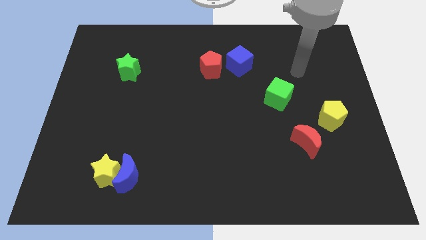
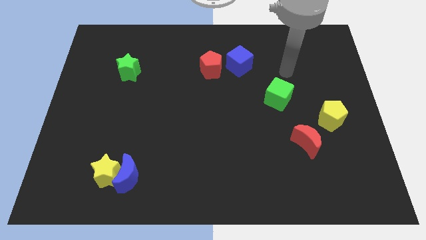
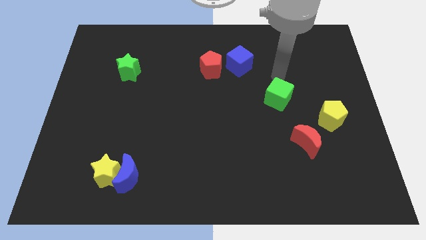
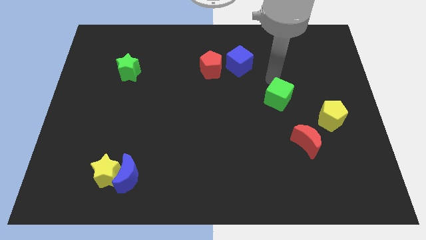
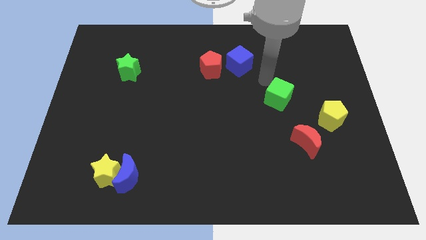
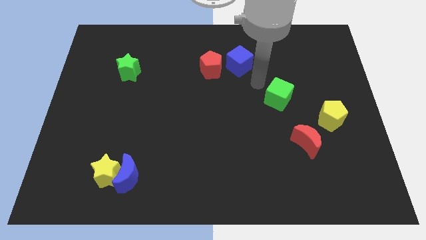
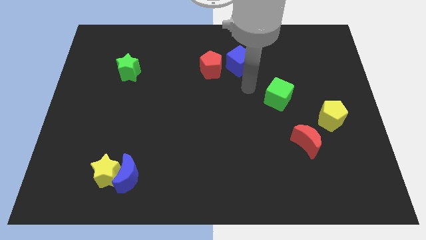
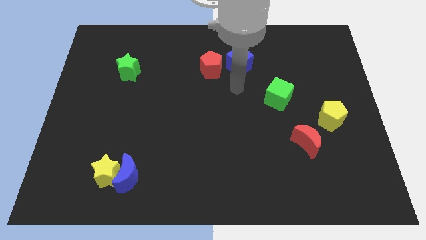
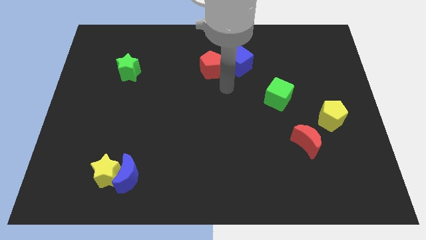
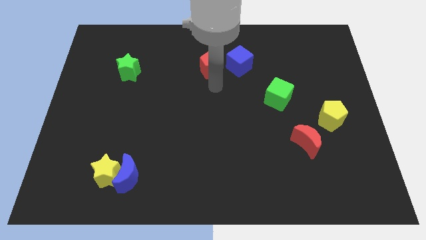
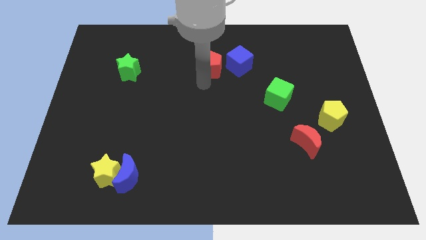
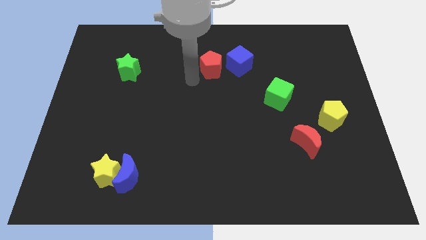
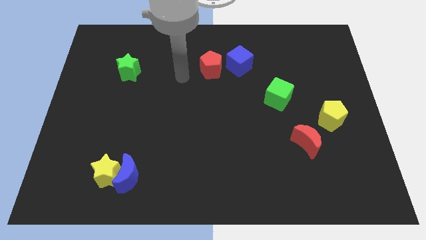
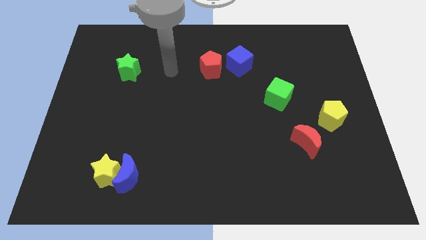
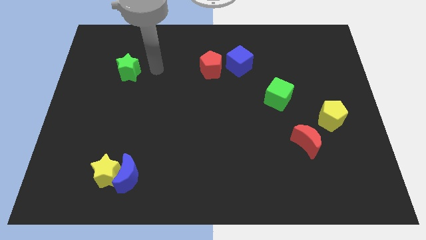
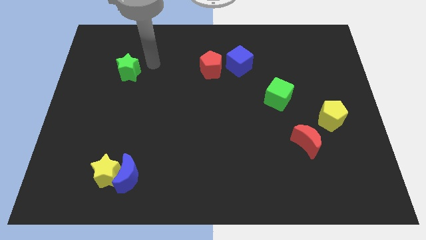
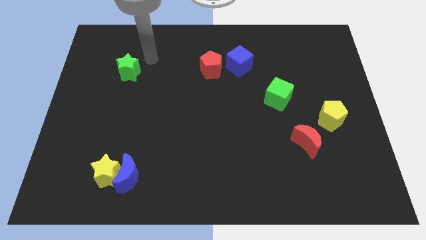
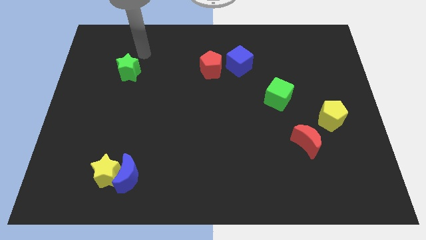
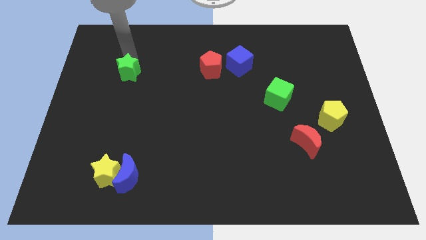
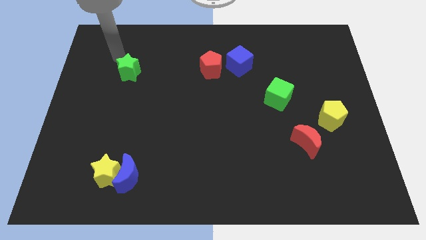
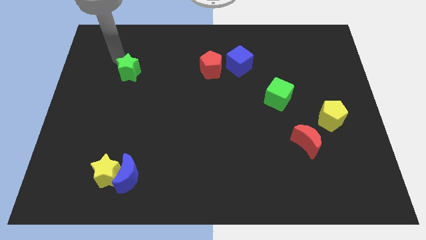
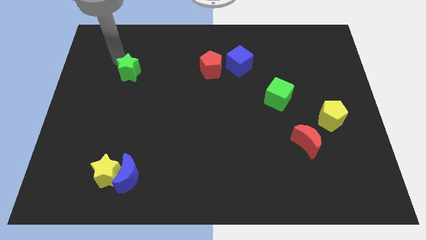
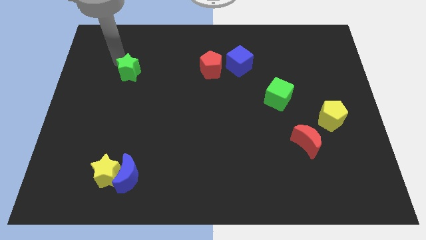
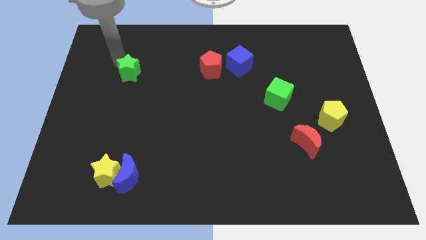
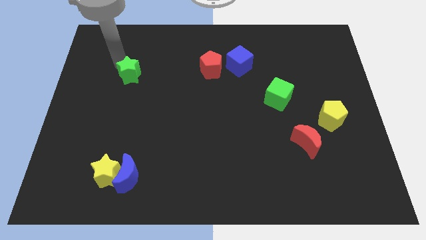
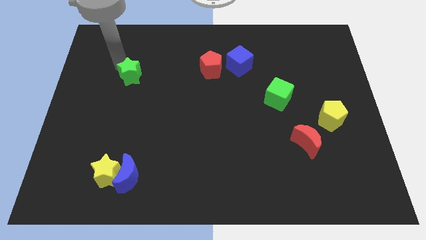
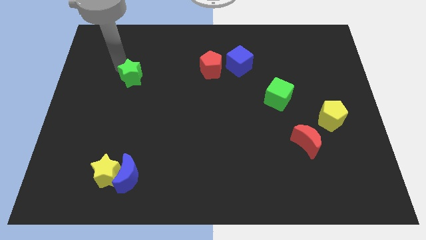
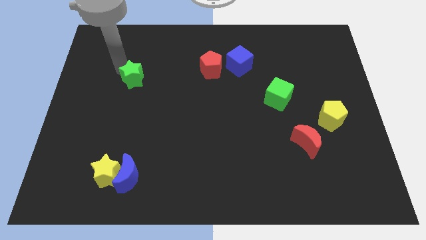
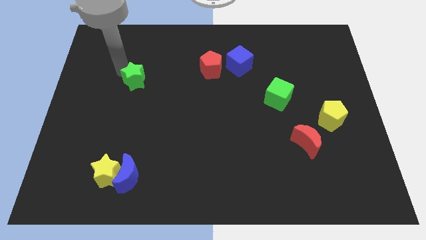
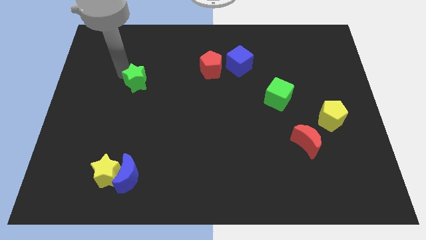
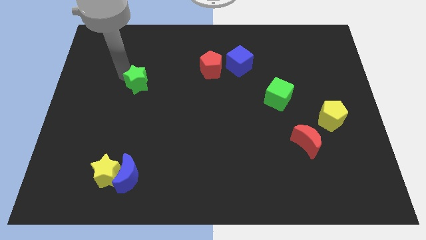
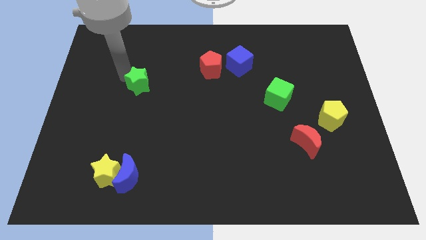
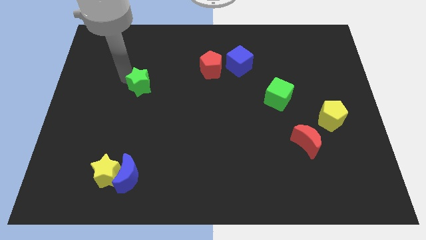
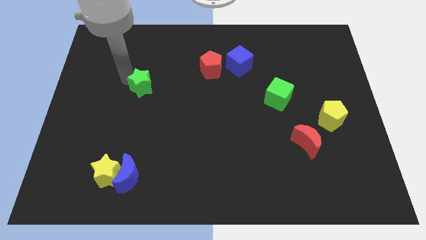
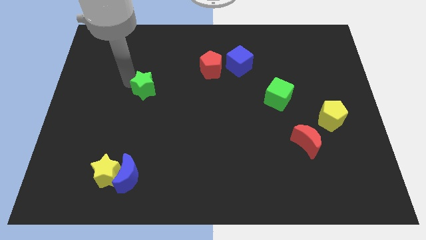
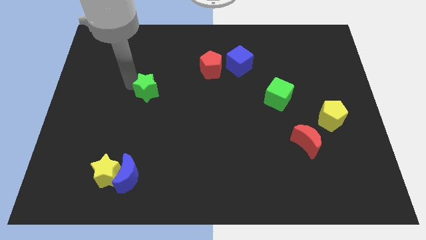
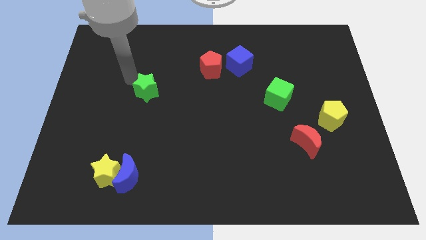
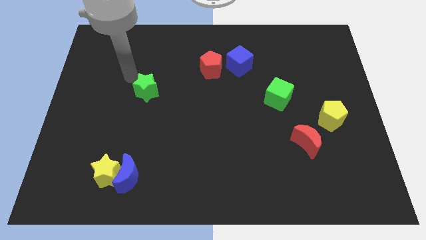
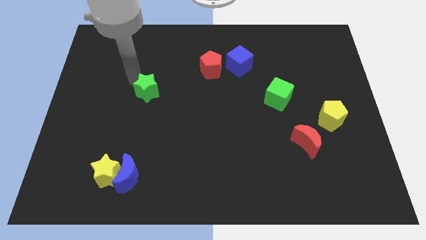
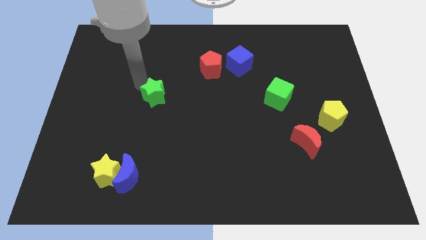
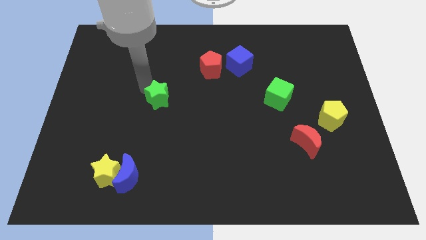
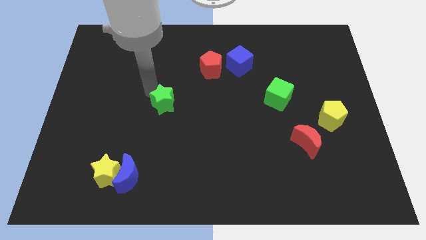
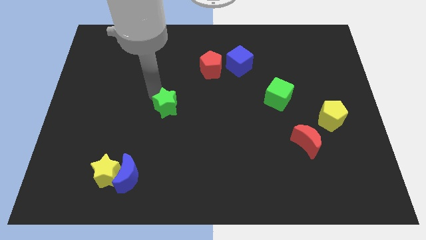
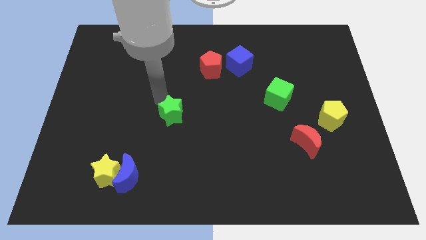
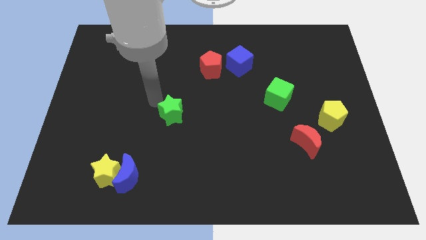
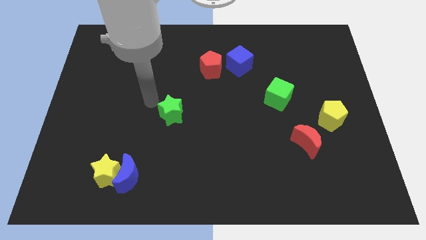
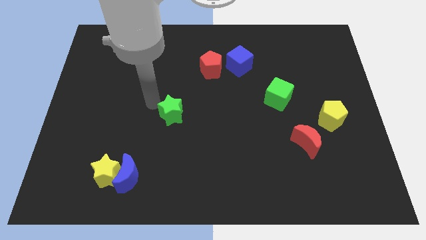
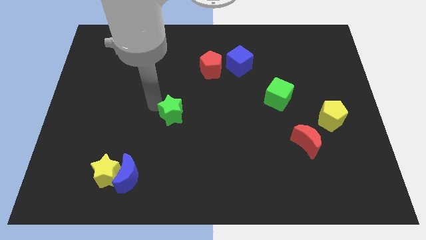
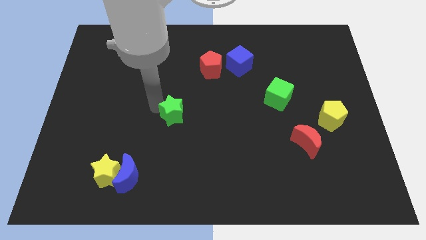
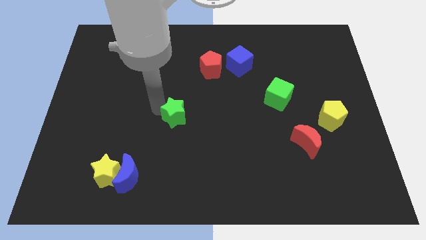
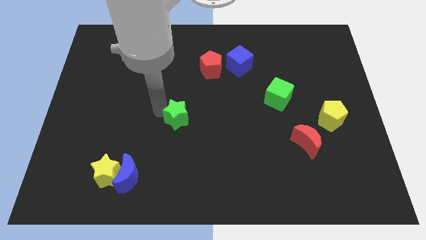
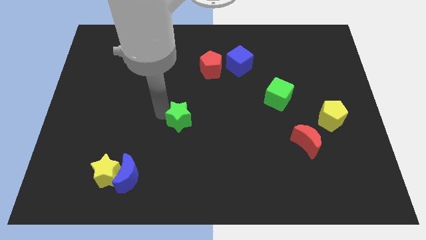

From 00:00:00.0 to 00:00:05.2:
push the green star down and to the right diagonally

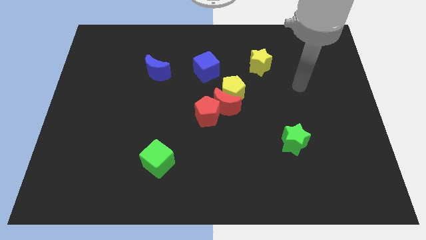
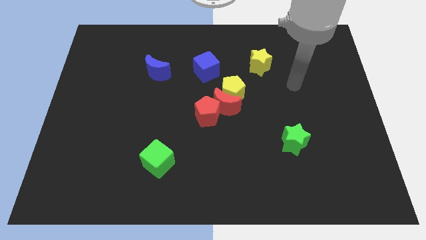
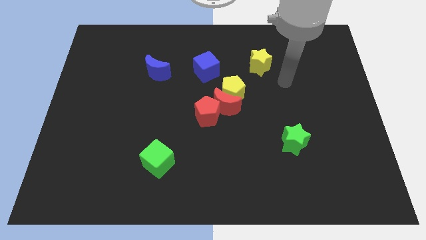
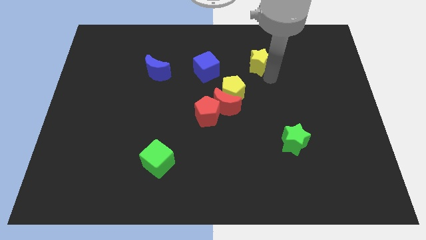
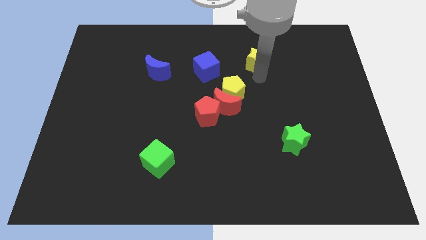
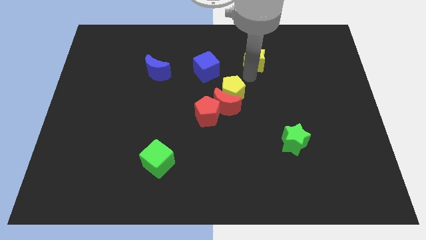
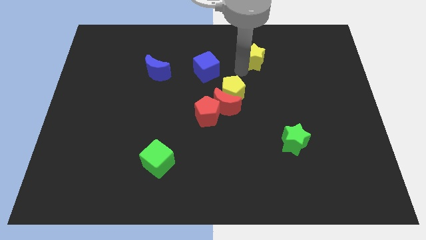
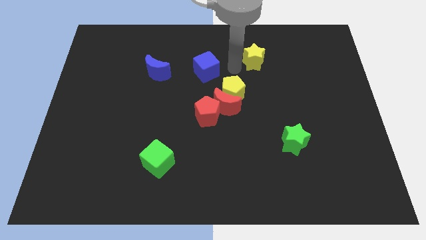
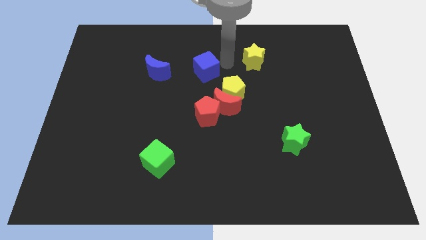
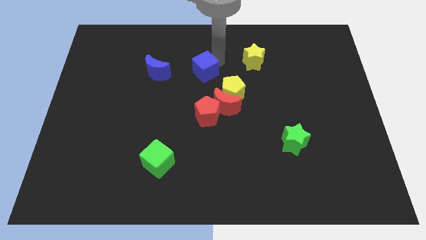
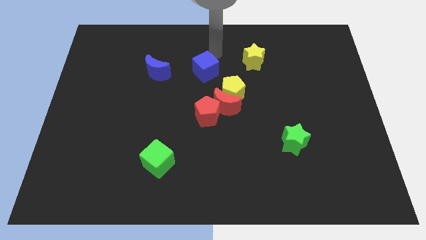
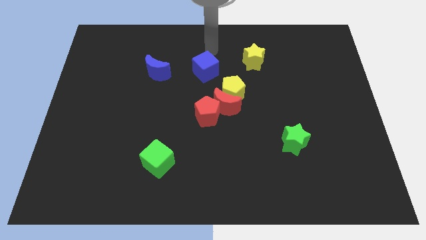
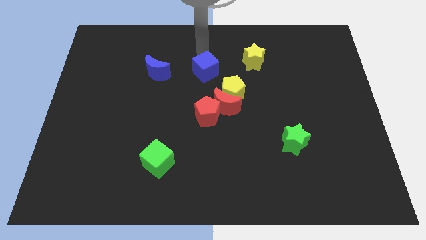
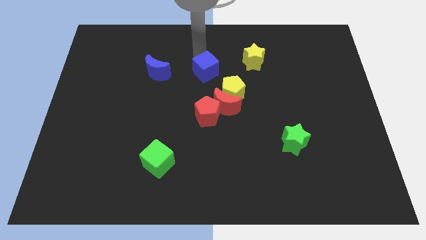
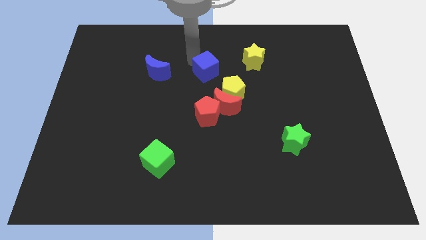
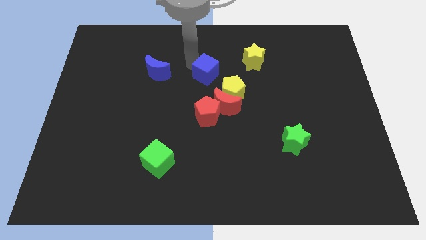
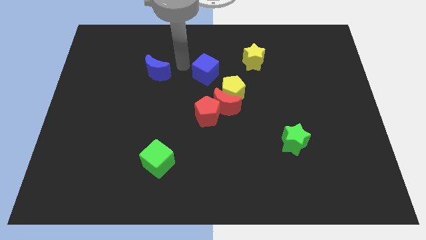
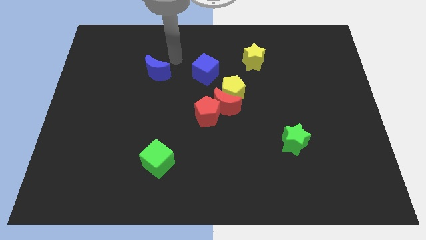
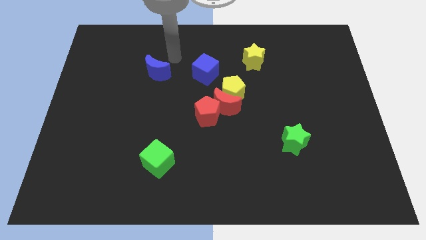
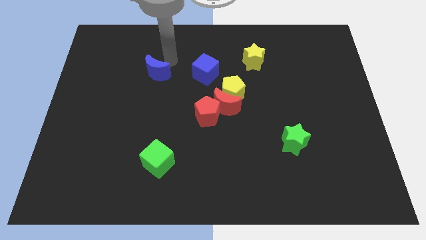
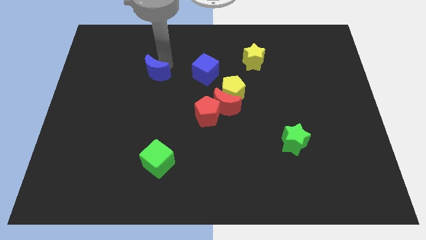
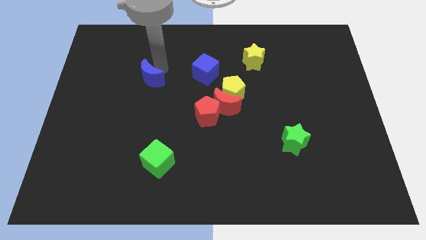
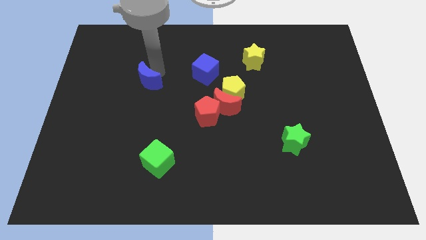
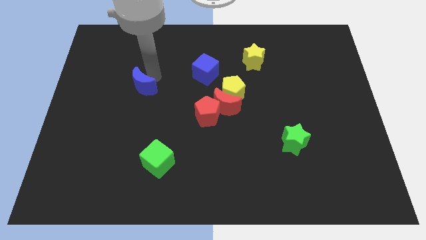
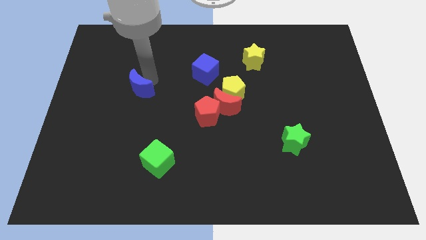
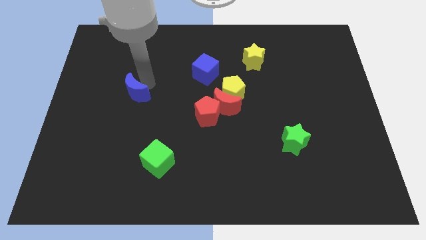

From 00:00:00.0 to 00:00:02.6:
slide the blue moon down and then to the left a little bit
